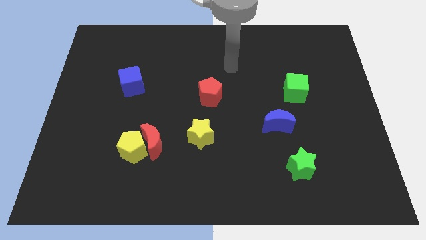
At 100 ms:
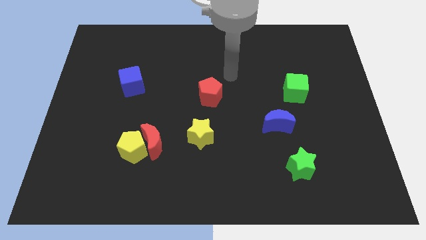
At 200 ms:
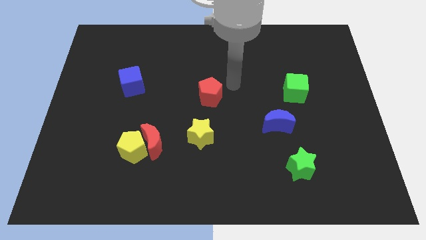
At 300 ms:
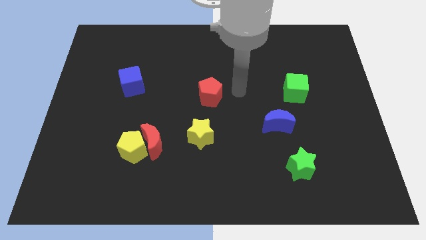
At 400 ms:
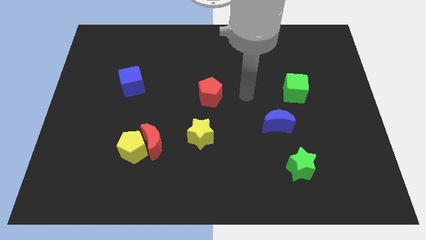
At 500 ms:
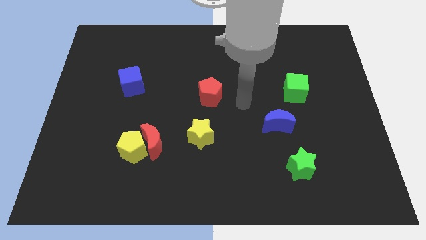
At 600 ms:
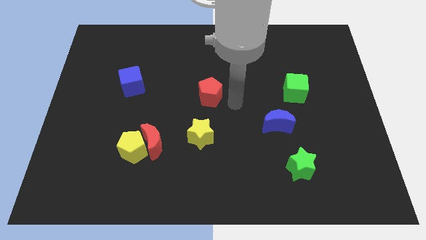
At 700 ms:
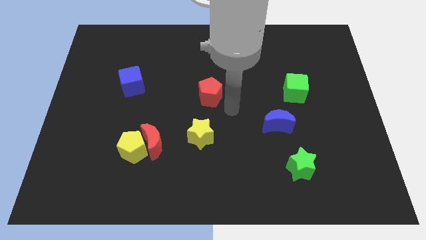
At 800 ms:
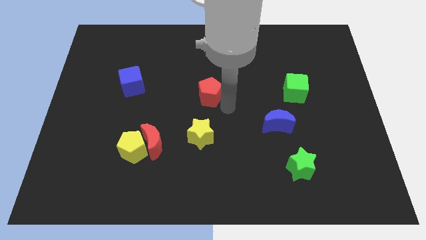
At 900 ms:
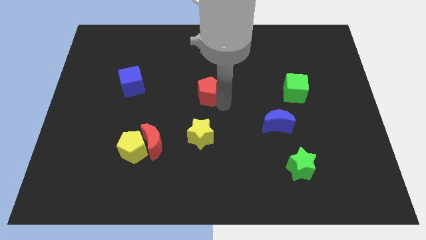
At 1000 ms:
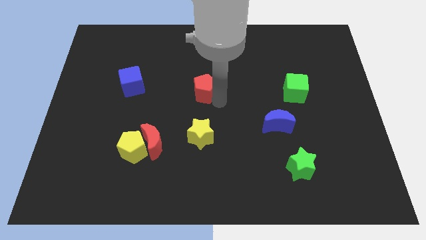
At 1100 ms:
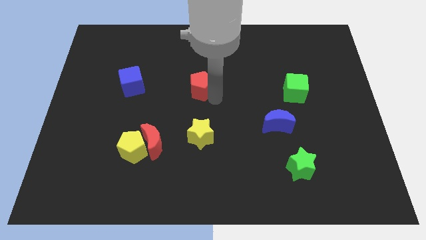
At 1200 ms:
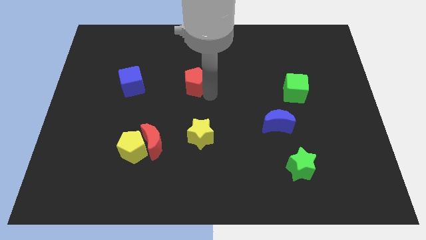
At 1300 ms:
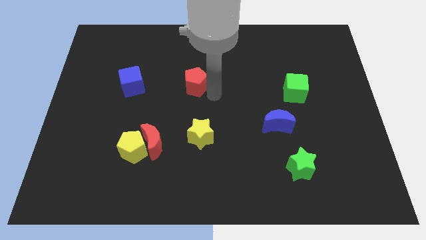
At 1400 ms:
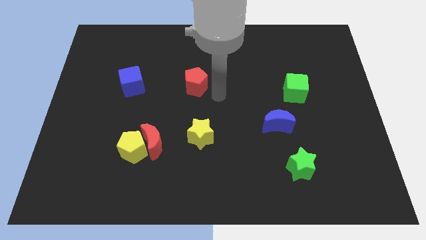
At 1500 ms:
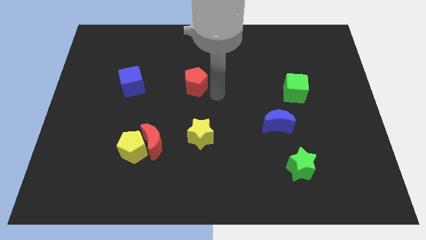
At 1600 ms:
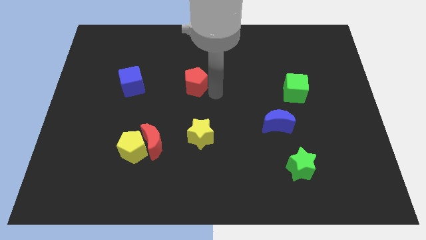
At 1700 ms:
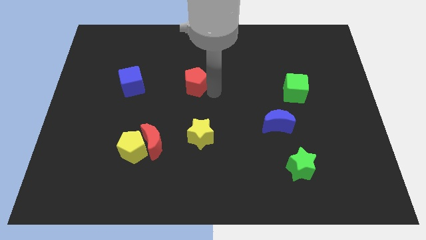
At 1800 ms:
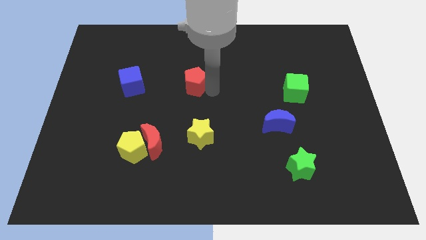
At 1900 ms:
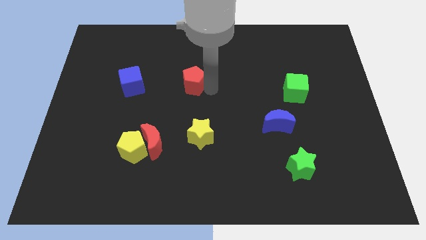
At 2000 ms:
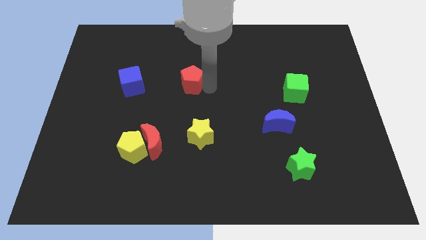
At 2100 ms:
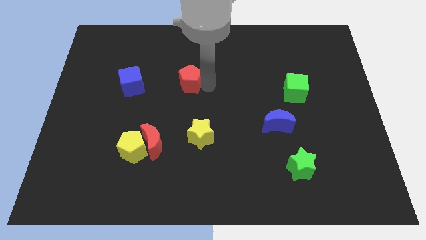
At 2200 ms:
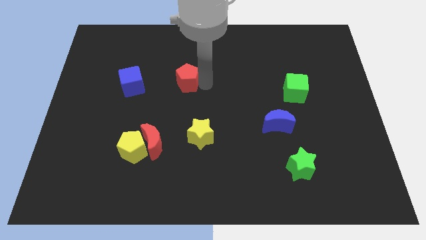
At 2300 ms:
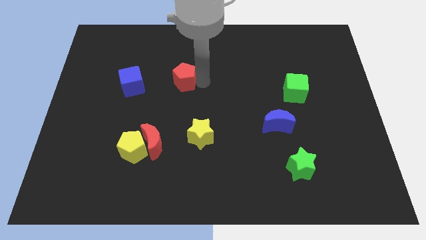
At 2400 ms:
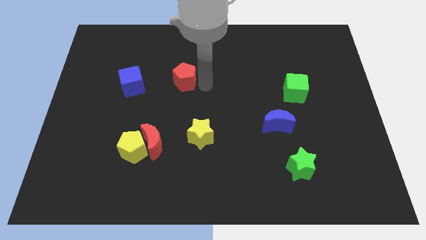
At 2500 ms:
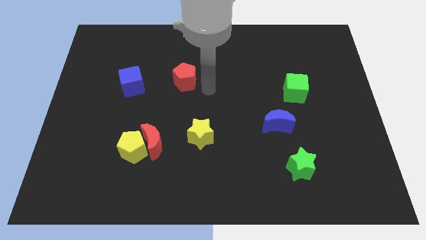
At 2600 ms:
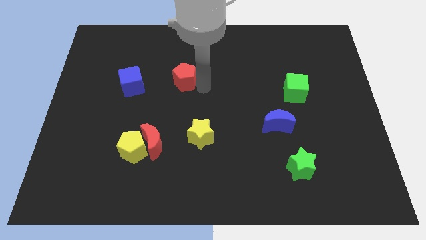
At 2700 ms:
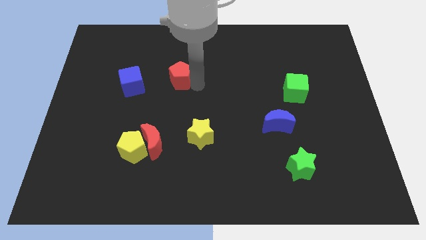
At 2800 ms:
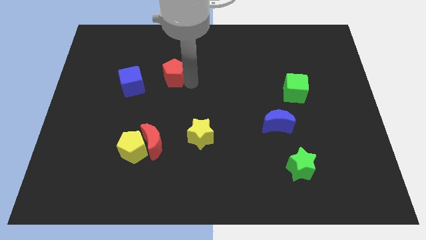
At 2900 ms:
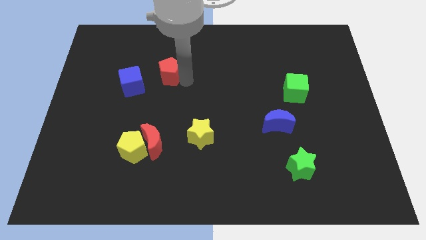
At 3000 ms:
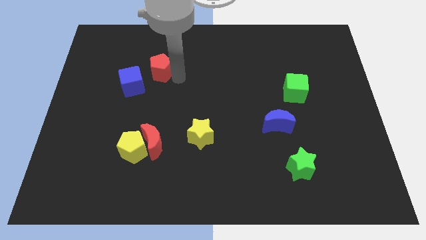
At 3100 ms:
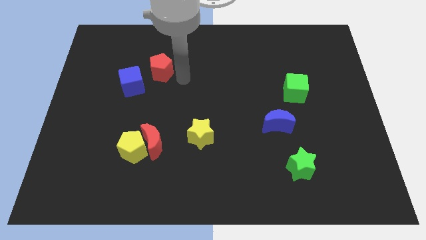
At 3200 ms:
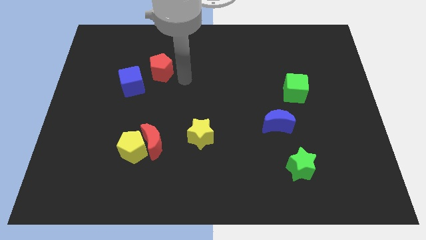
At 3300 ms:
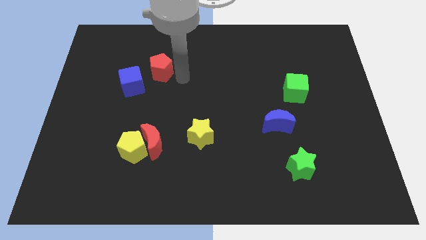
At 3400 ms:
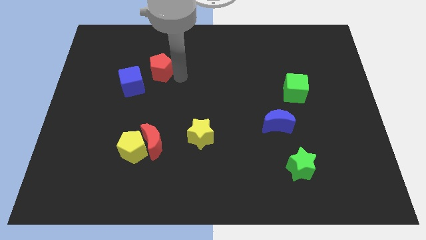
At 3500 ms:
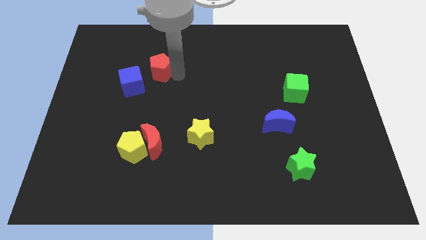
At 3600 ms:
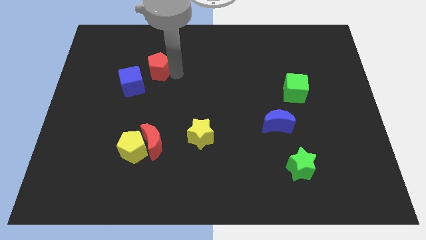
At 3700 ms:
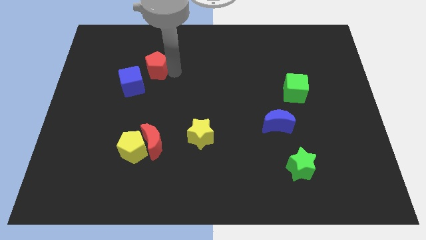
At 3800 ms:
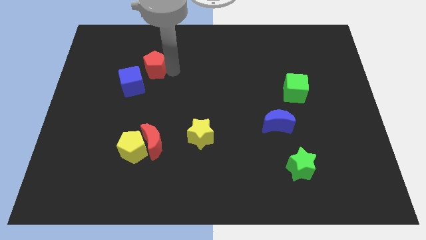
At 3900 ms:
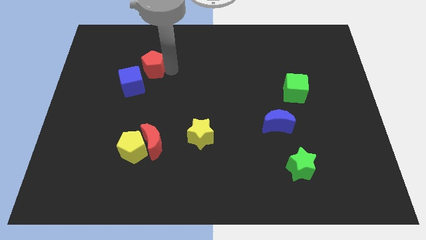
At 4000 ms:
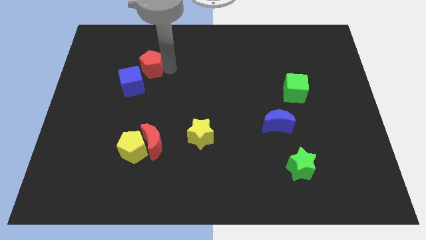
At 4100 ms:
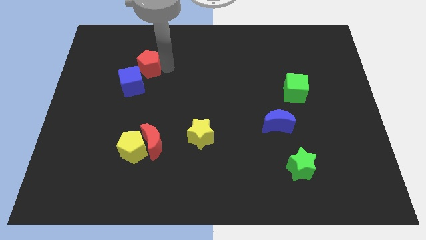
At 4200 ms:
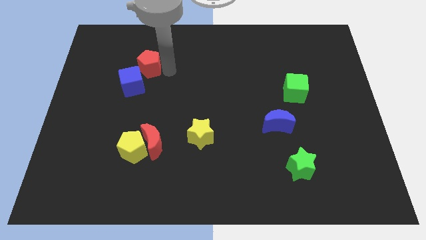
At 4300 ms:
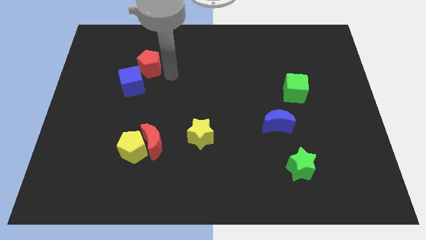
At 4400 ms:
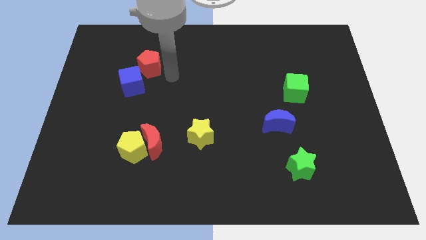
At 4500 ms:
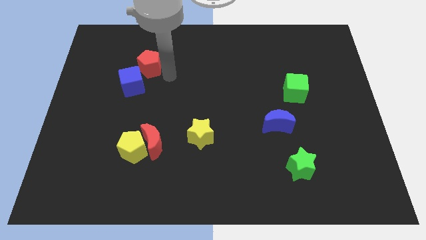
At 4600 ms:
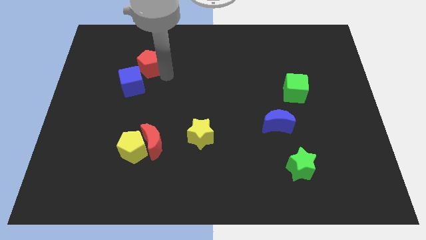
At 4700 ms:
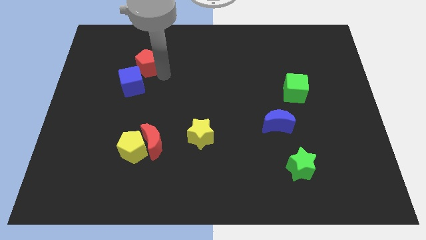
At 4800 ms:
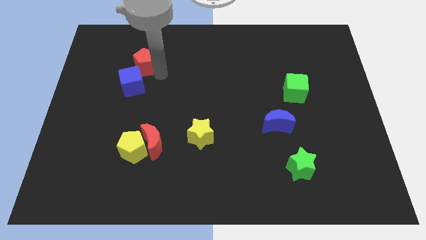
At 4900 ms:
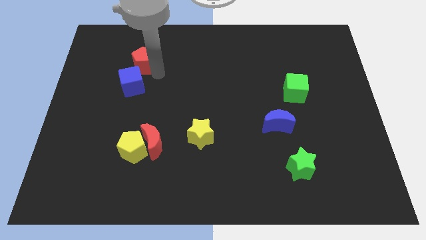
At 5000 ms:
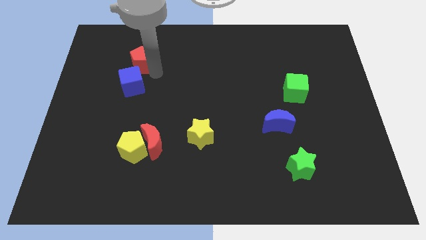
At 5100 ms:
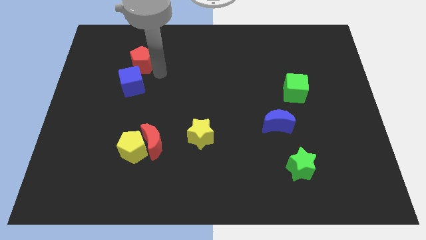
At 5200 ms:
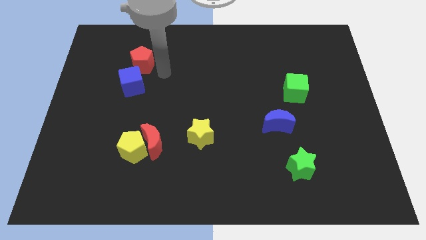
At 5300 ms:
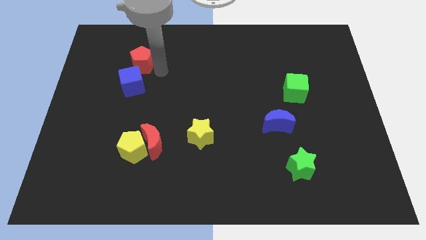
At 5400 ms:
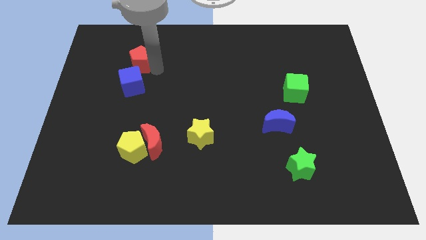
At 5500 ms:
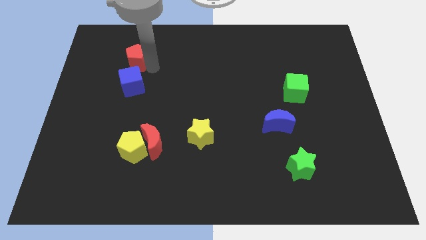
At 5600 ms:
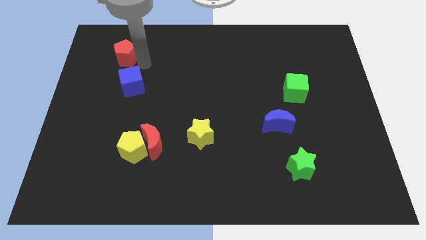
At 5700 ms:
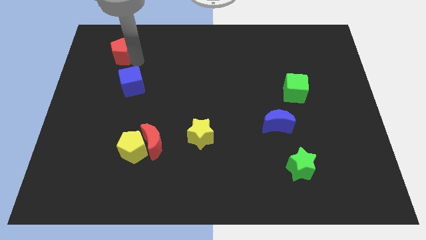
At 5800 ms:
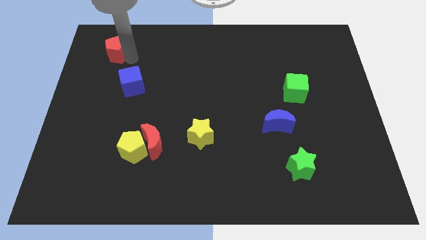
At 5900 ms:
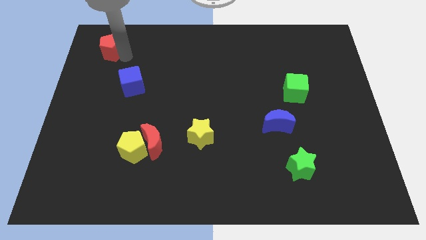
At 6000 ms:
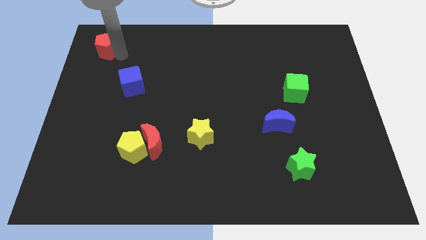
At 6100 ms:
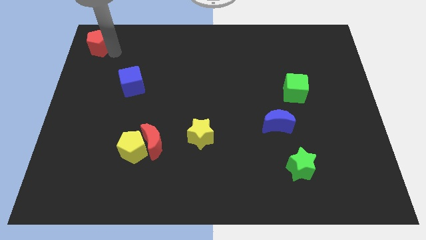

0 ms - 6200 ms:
move the red pentagon to the upper left corner

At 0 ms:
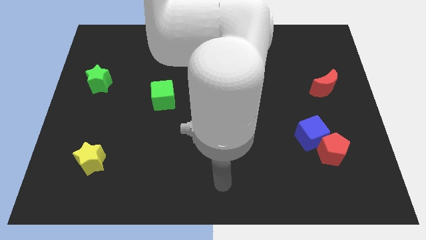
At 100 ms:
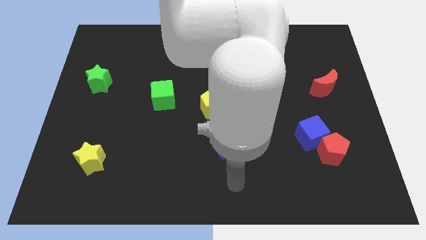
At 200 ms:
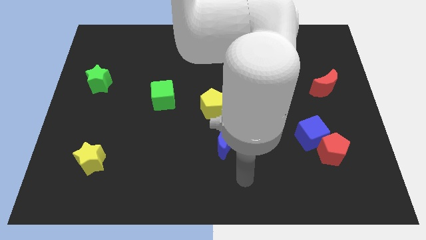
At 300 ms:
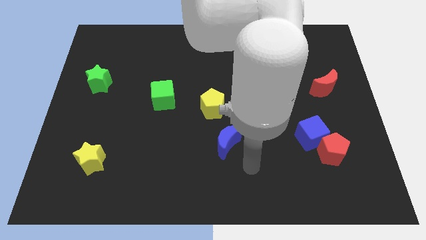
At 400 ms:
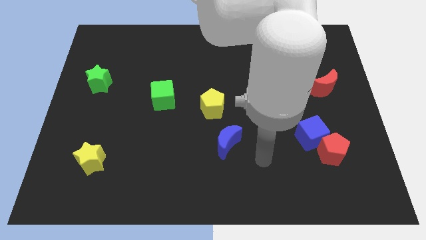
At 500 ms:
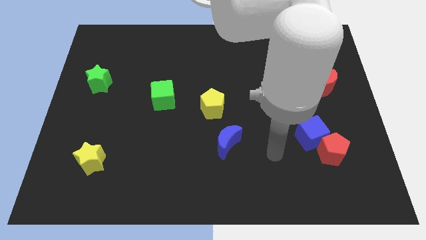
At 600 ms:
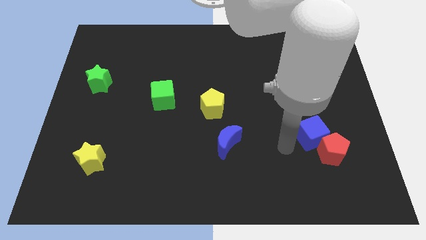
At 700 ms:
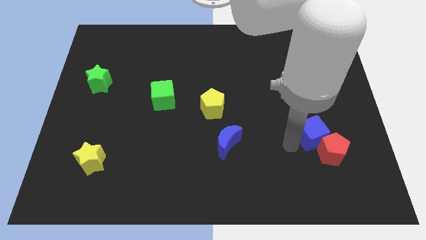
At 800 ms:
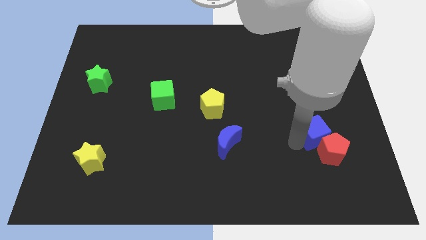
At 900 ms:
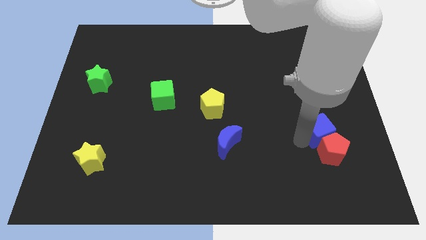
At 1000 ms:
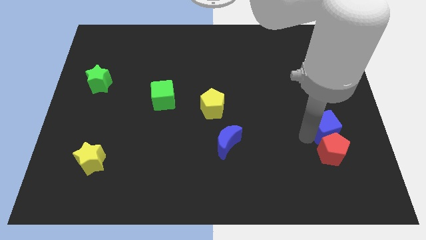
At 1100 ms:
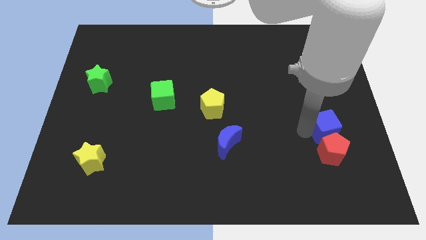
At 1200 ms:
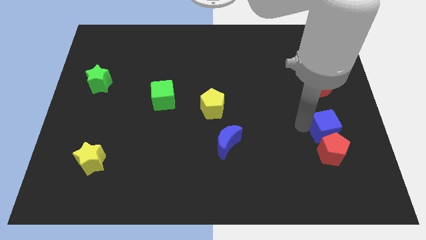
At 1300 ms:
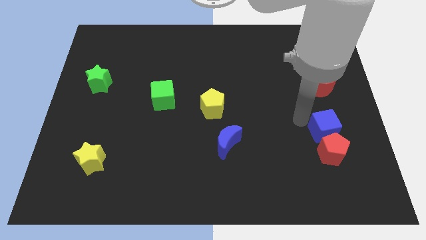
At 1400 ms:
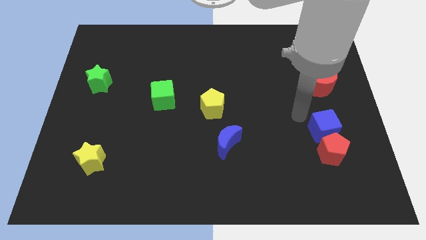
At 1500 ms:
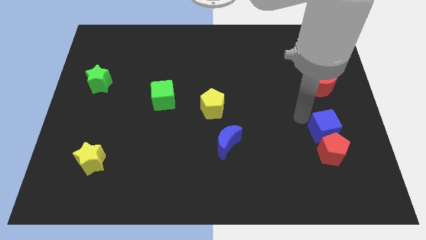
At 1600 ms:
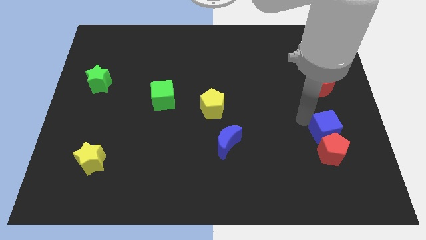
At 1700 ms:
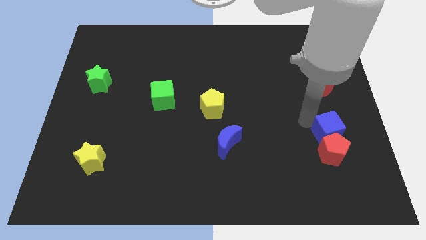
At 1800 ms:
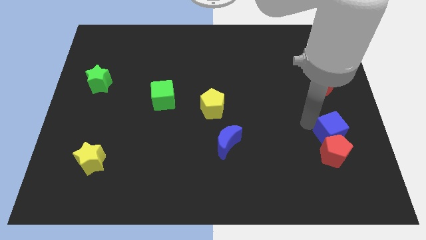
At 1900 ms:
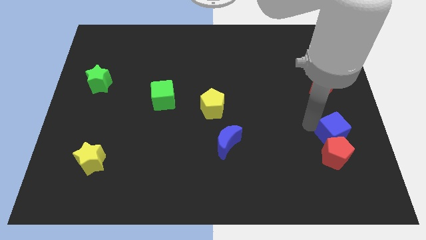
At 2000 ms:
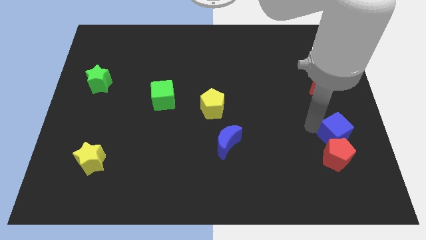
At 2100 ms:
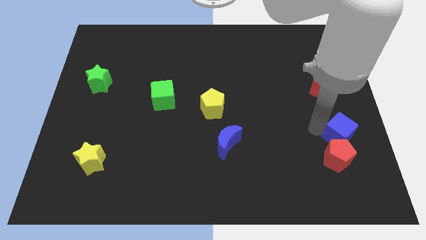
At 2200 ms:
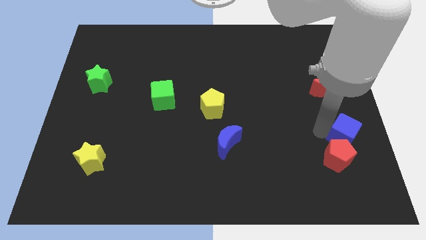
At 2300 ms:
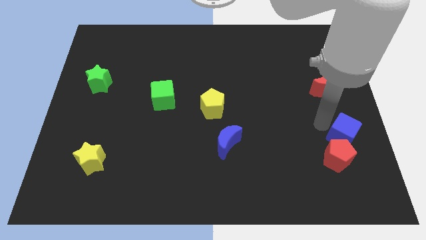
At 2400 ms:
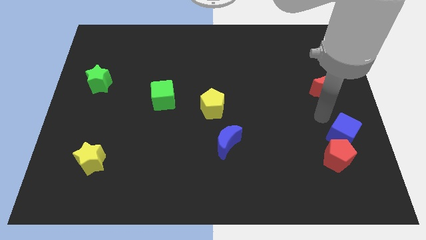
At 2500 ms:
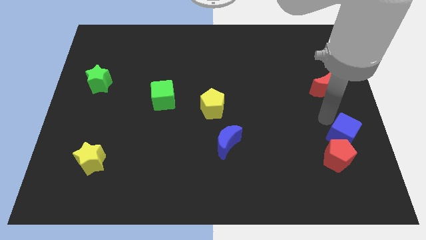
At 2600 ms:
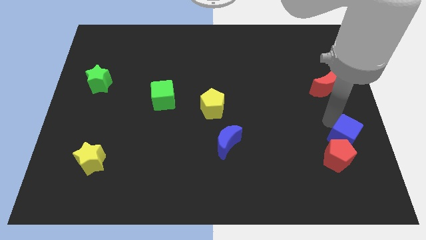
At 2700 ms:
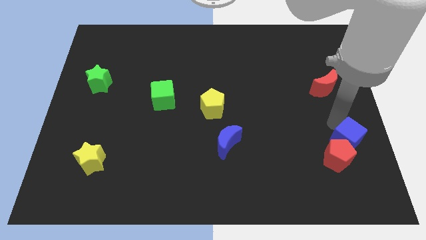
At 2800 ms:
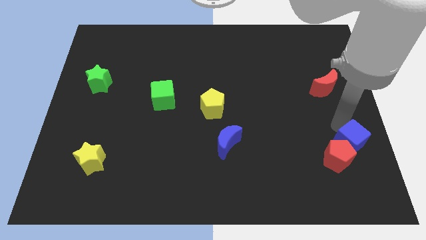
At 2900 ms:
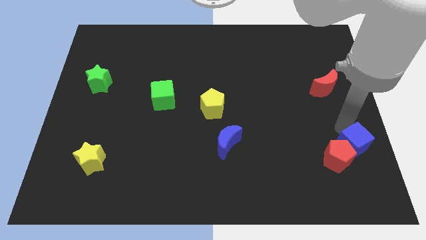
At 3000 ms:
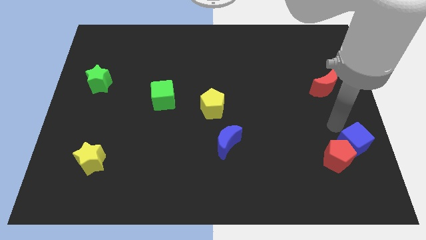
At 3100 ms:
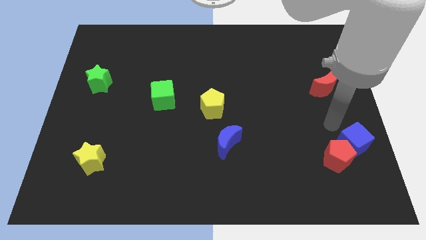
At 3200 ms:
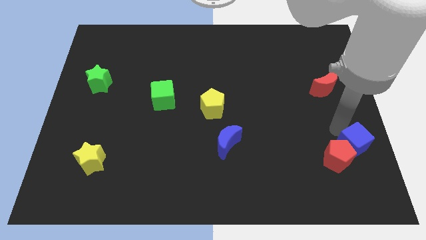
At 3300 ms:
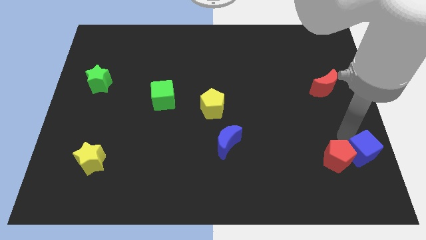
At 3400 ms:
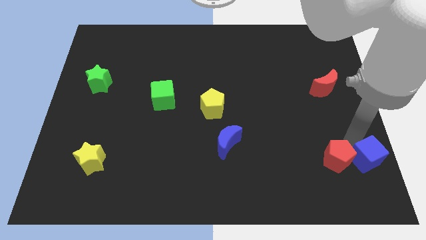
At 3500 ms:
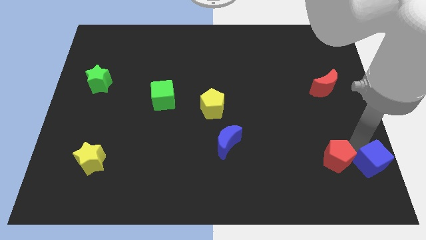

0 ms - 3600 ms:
put the blue cube to the bottom right corner
